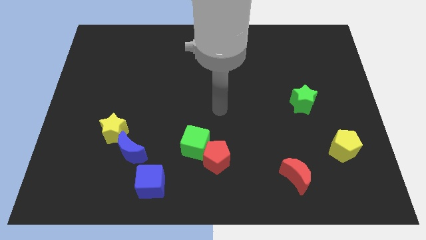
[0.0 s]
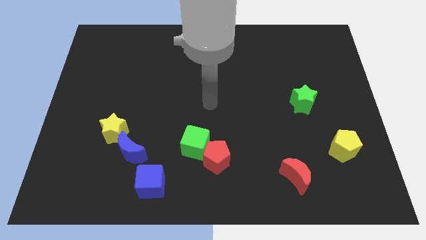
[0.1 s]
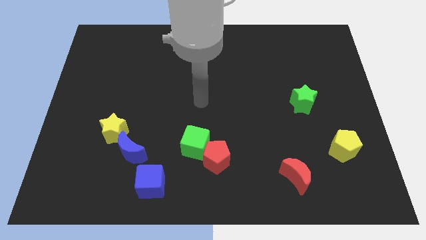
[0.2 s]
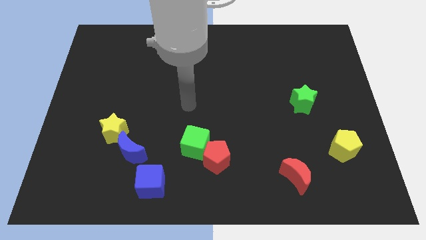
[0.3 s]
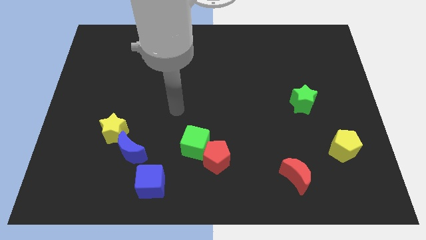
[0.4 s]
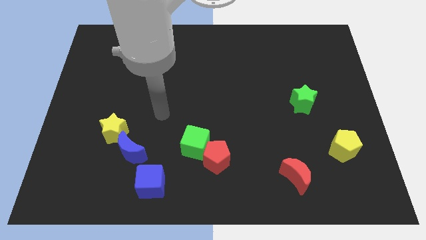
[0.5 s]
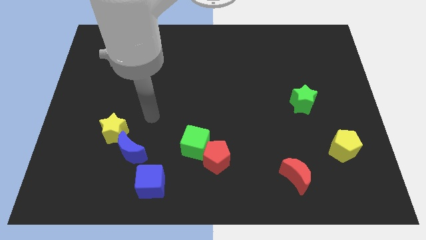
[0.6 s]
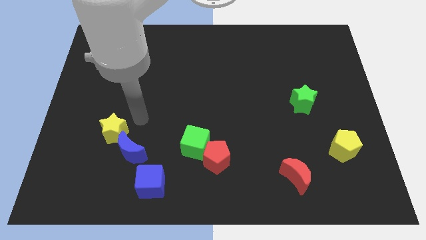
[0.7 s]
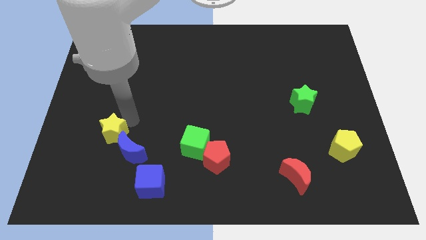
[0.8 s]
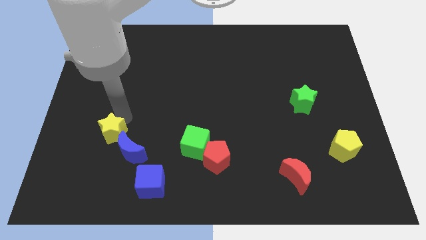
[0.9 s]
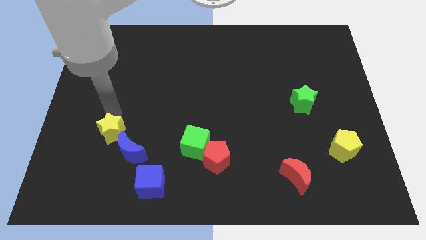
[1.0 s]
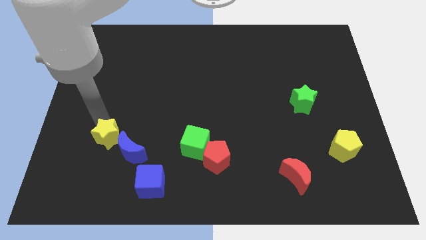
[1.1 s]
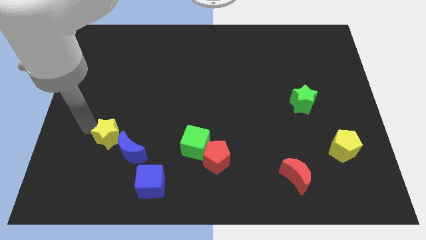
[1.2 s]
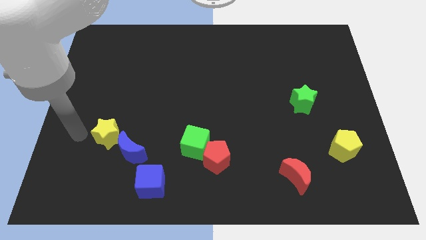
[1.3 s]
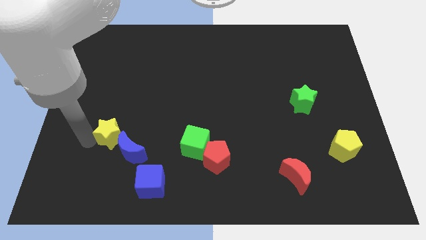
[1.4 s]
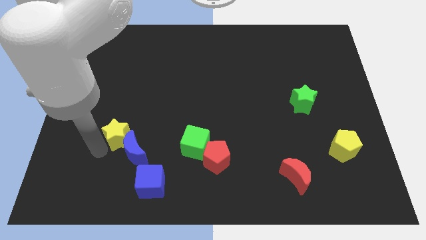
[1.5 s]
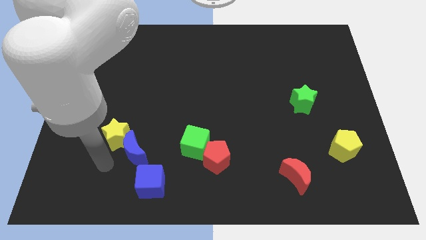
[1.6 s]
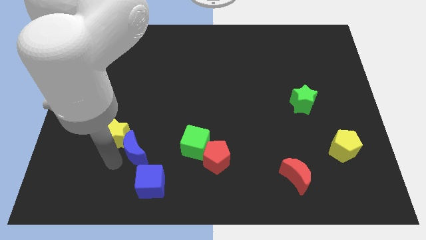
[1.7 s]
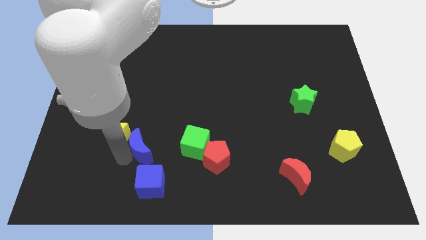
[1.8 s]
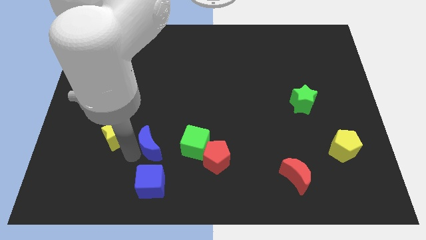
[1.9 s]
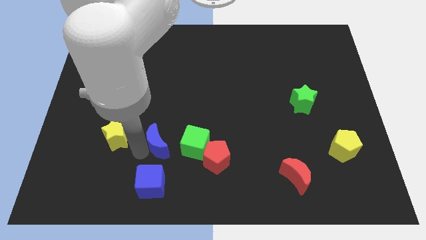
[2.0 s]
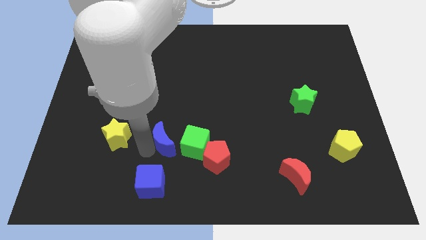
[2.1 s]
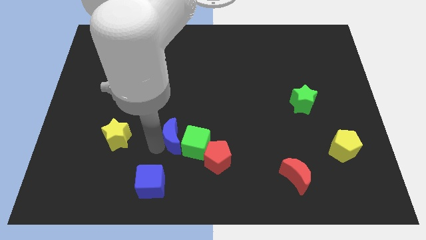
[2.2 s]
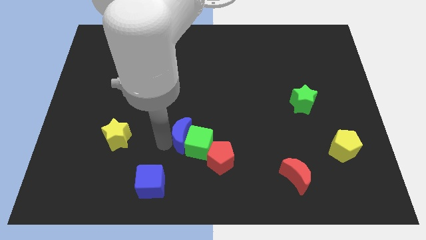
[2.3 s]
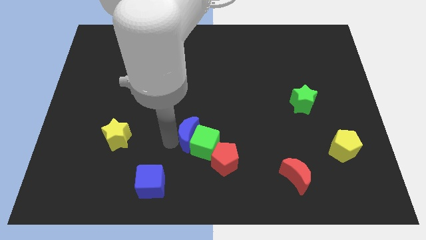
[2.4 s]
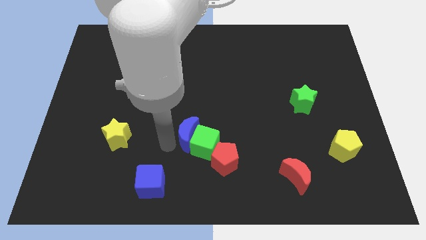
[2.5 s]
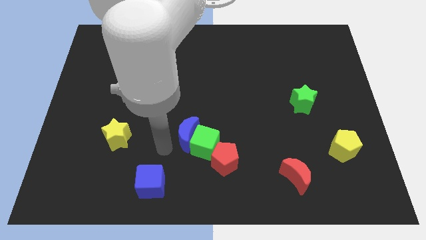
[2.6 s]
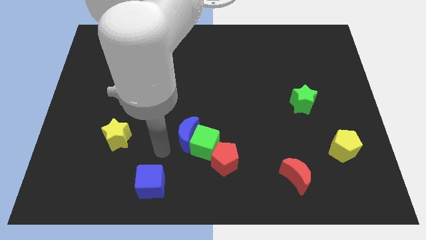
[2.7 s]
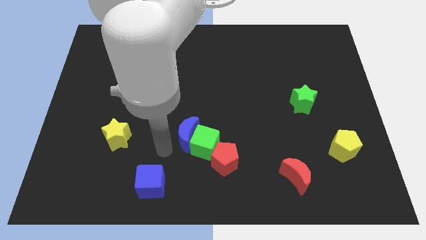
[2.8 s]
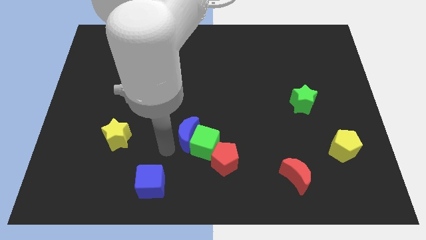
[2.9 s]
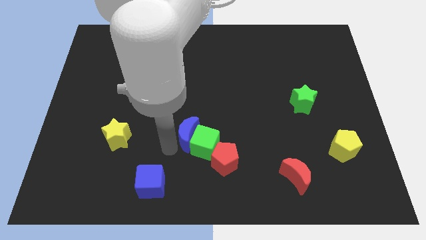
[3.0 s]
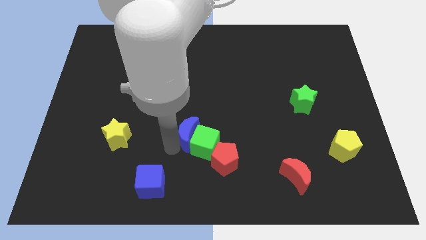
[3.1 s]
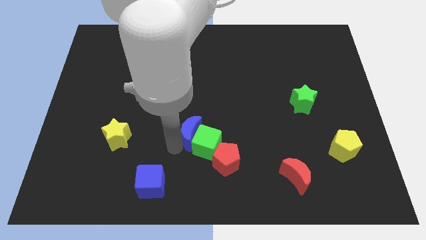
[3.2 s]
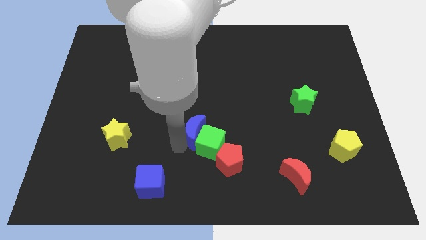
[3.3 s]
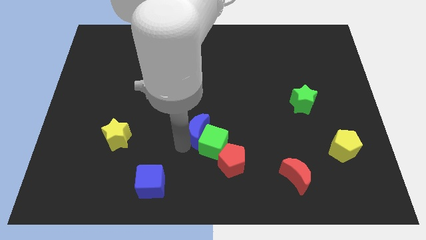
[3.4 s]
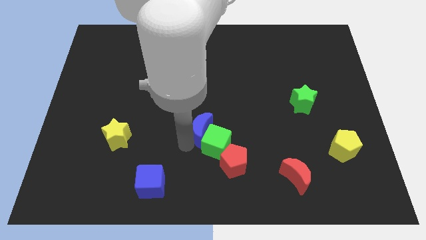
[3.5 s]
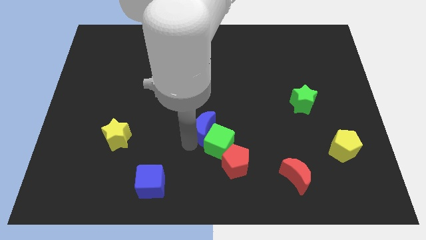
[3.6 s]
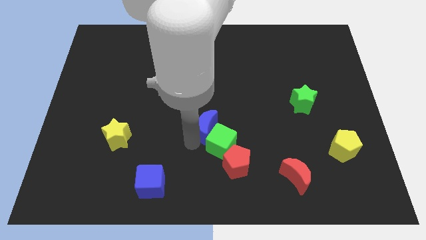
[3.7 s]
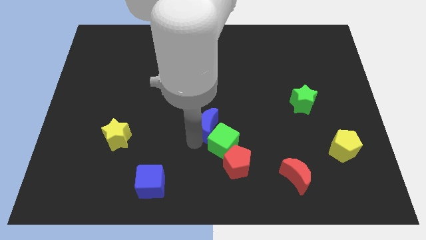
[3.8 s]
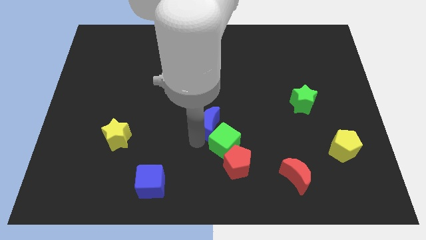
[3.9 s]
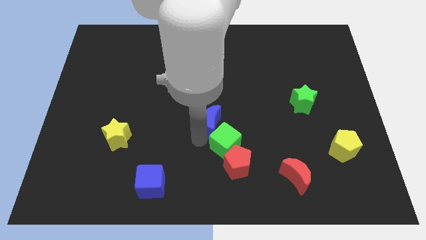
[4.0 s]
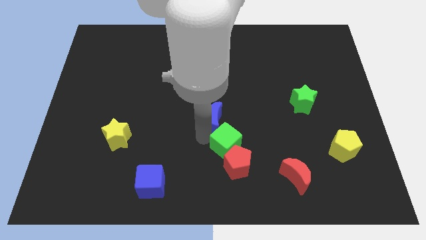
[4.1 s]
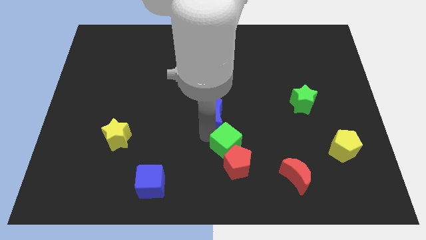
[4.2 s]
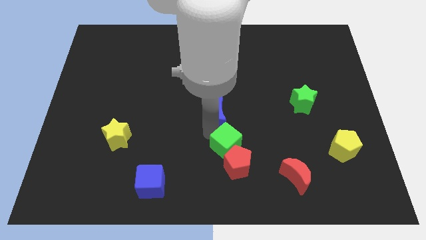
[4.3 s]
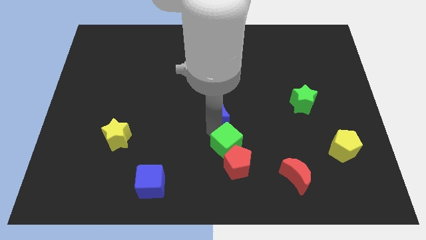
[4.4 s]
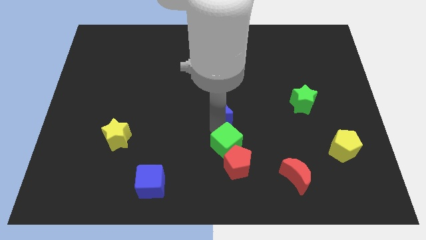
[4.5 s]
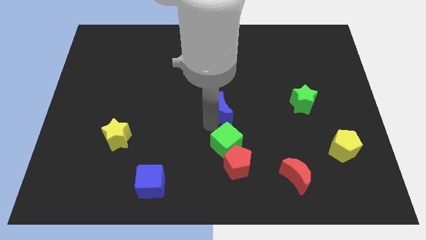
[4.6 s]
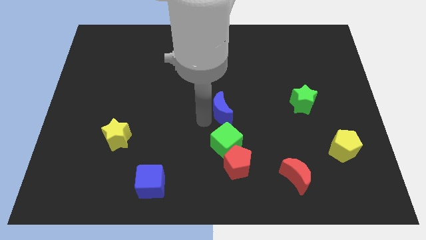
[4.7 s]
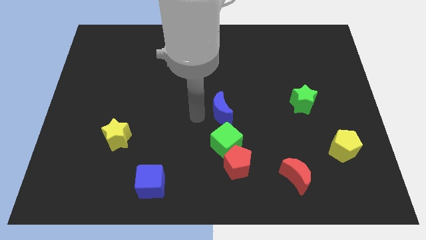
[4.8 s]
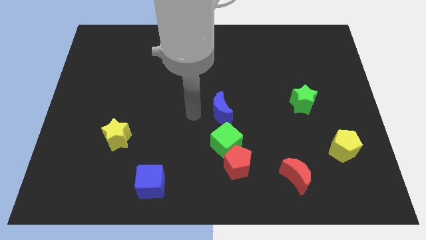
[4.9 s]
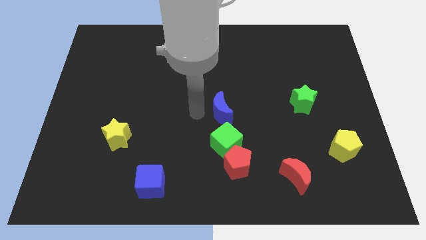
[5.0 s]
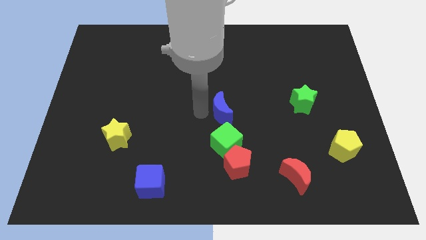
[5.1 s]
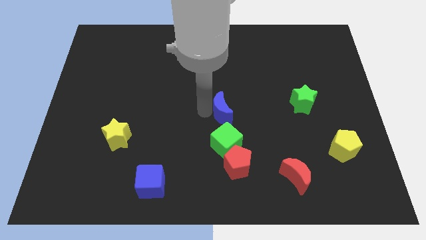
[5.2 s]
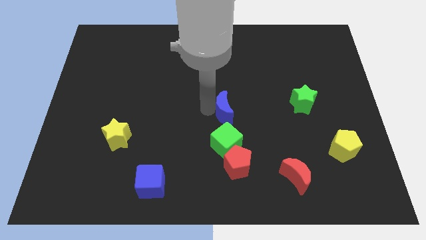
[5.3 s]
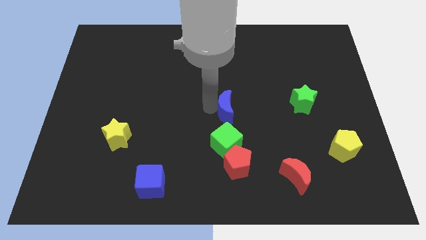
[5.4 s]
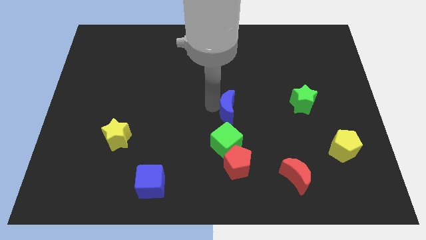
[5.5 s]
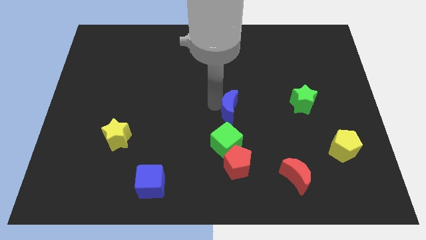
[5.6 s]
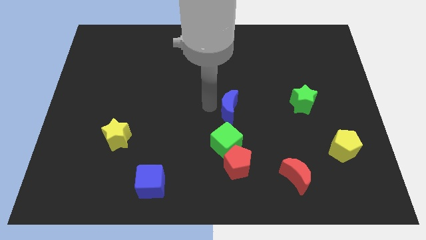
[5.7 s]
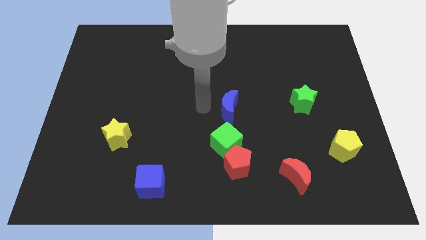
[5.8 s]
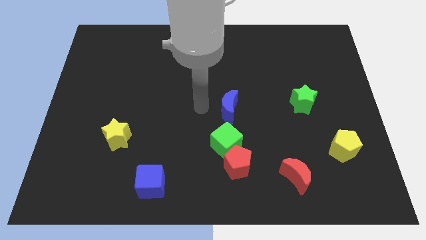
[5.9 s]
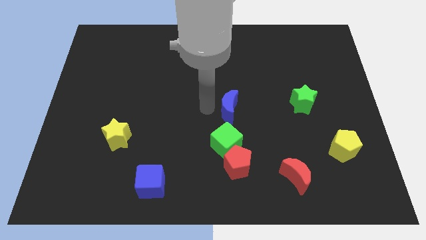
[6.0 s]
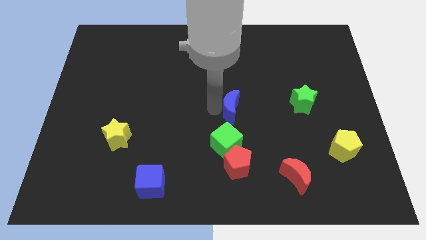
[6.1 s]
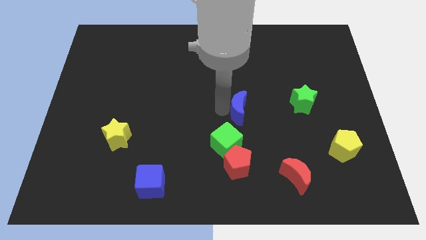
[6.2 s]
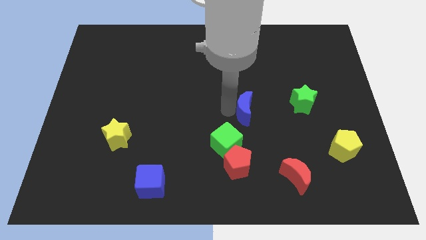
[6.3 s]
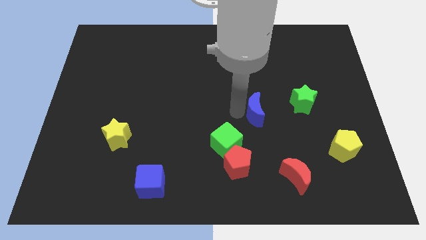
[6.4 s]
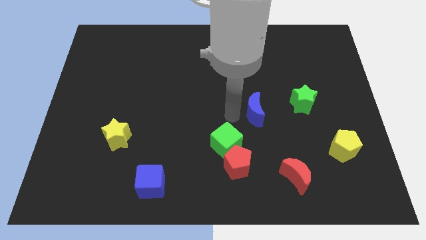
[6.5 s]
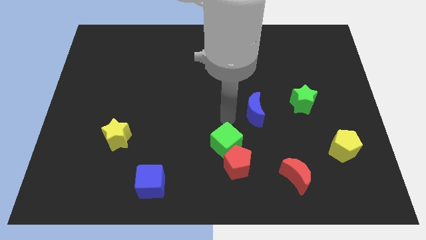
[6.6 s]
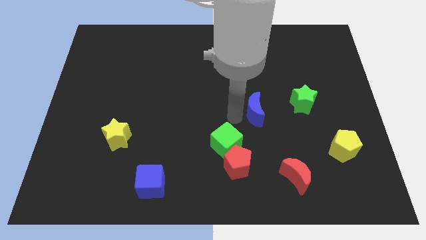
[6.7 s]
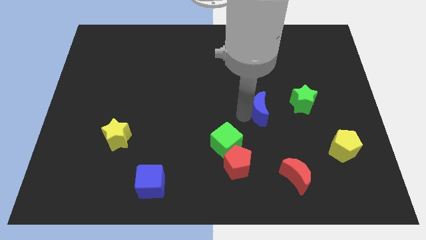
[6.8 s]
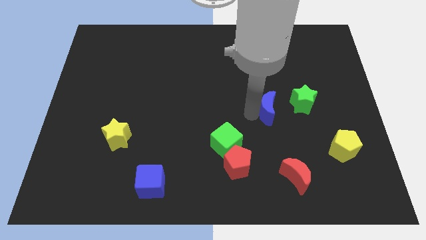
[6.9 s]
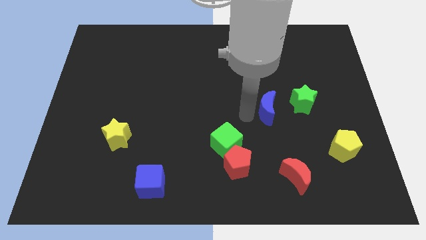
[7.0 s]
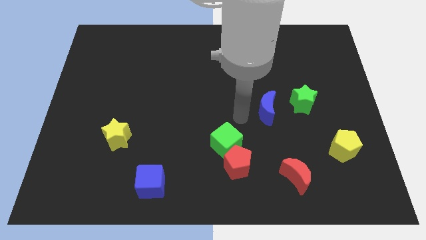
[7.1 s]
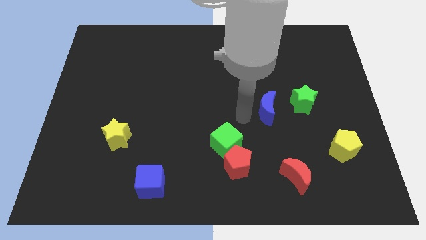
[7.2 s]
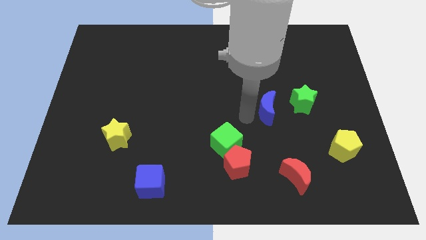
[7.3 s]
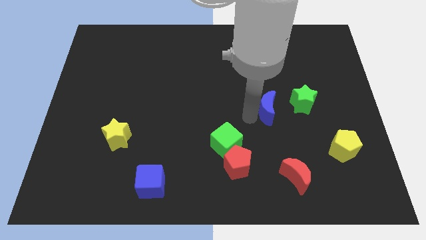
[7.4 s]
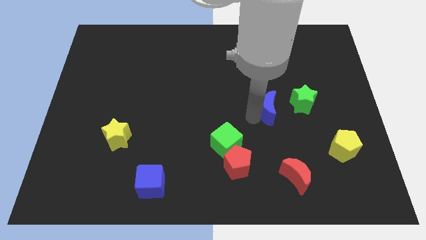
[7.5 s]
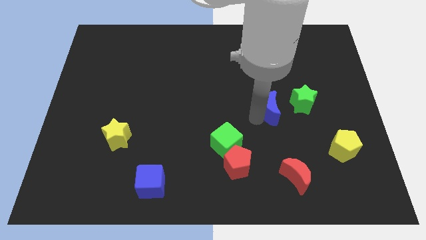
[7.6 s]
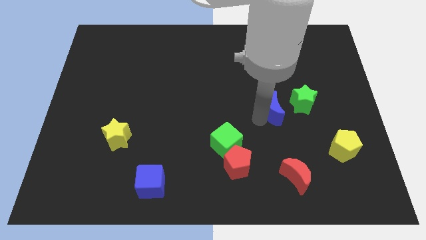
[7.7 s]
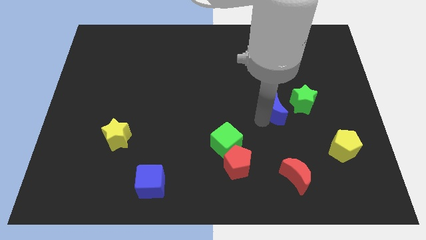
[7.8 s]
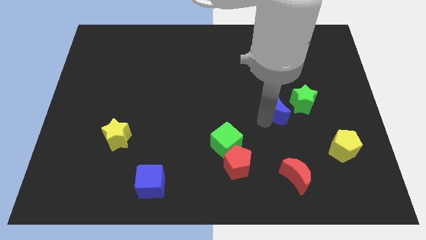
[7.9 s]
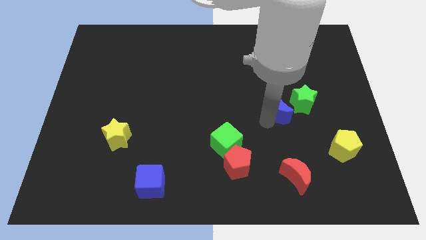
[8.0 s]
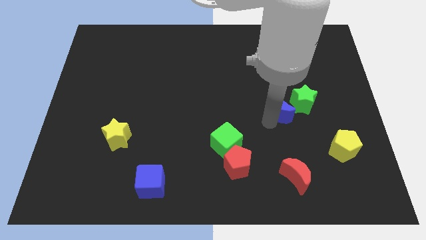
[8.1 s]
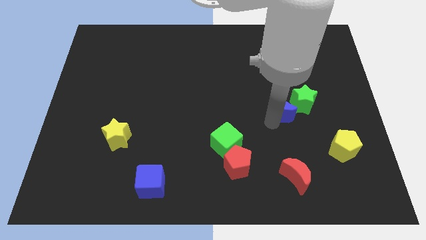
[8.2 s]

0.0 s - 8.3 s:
move the blue moon next to the green star
